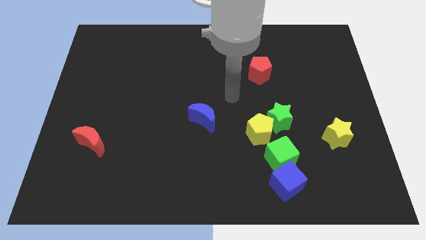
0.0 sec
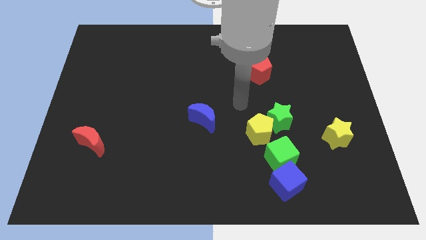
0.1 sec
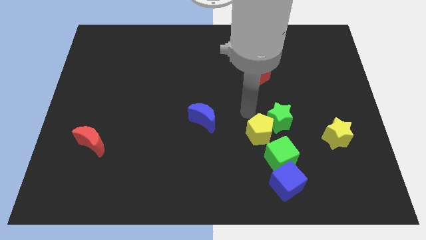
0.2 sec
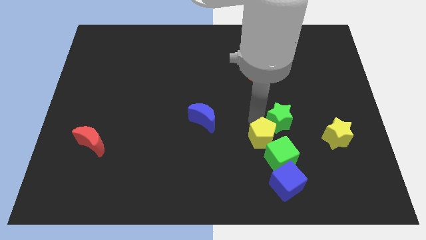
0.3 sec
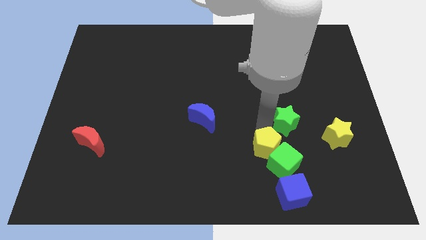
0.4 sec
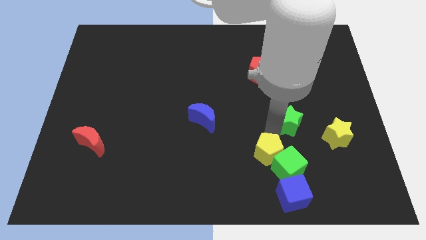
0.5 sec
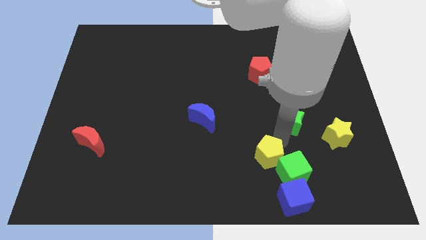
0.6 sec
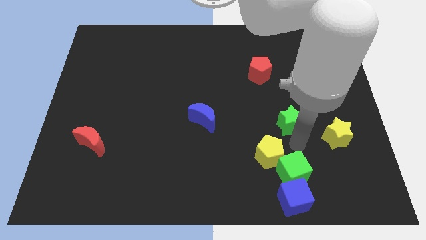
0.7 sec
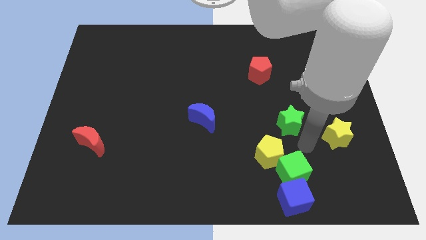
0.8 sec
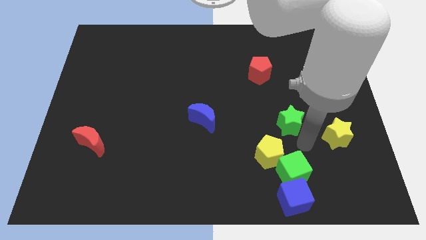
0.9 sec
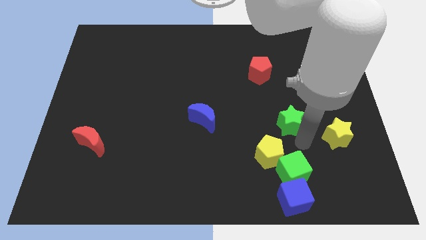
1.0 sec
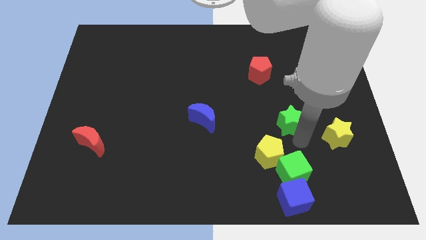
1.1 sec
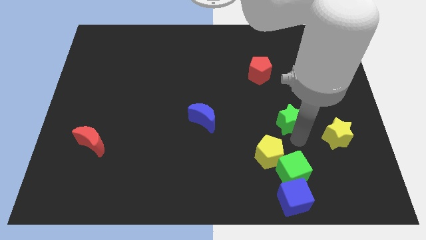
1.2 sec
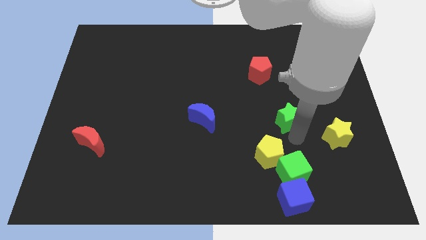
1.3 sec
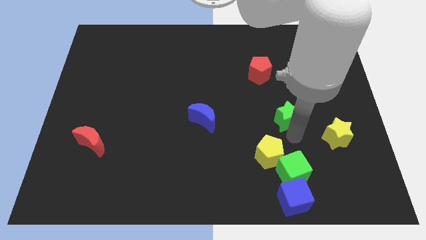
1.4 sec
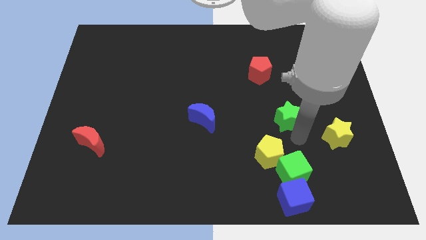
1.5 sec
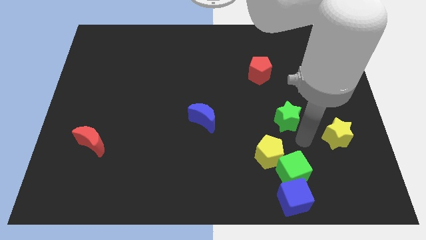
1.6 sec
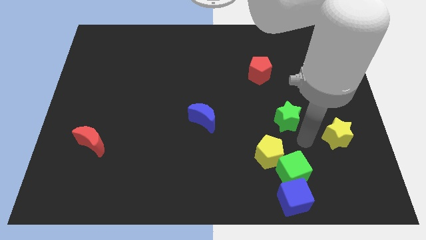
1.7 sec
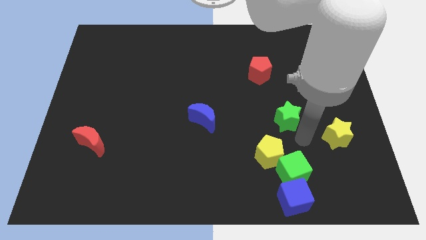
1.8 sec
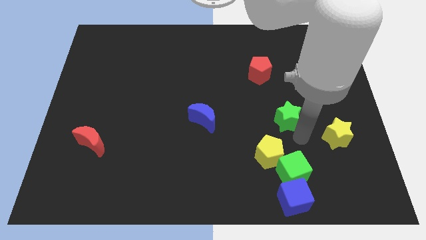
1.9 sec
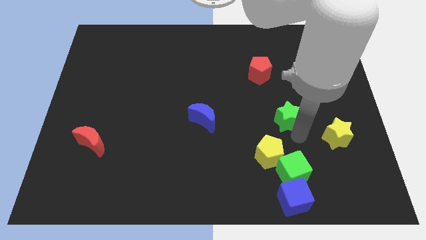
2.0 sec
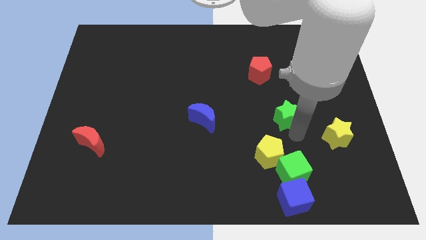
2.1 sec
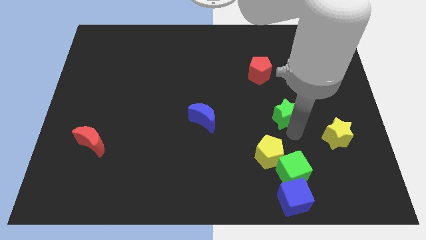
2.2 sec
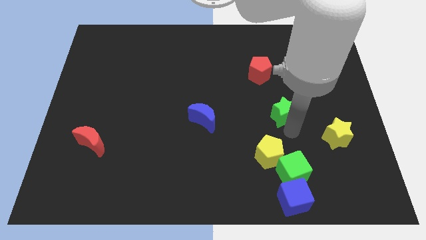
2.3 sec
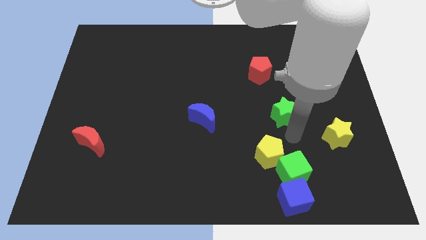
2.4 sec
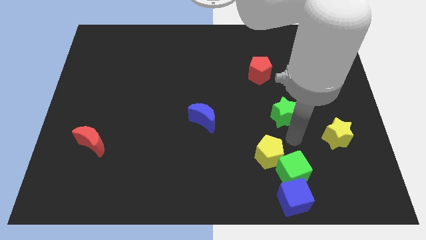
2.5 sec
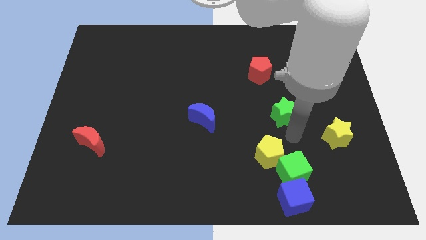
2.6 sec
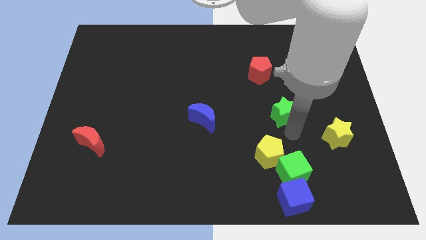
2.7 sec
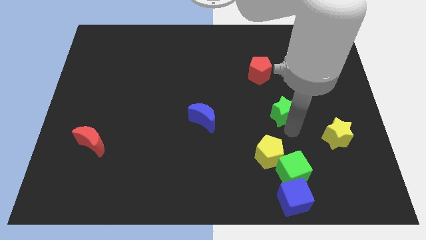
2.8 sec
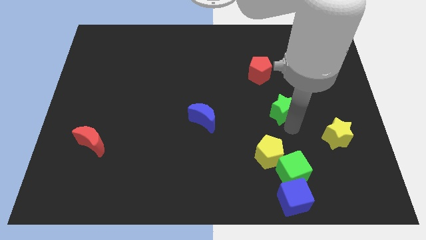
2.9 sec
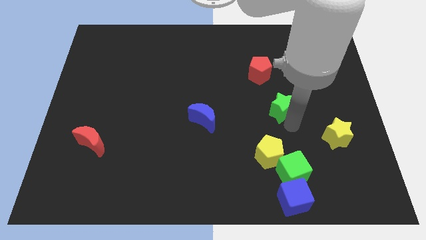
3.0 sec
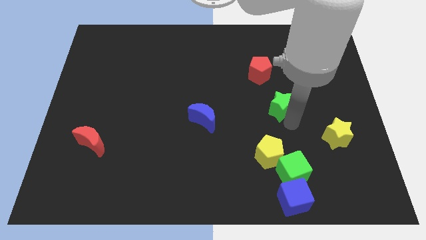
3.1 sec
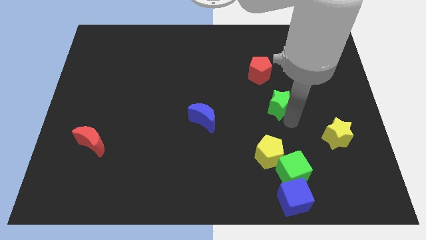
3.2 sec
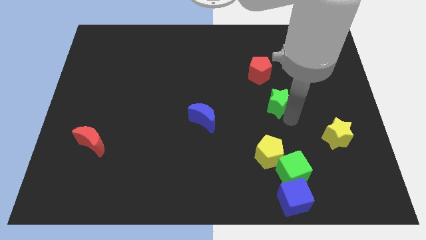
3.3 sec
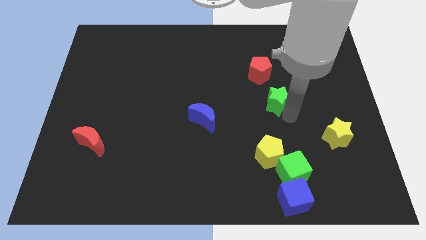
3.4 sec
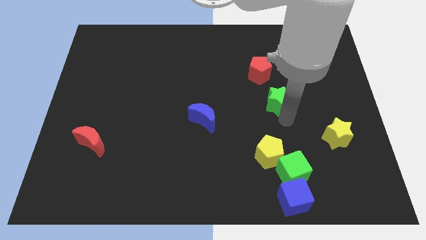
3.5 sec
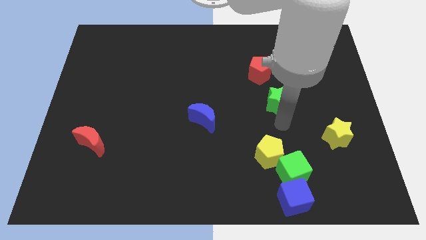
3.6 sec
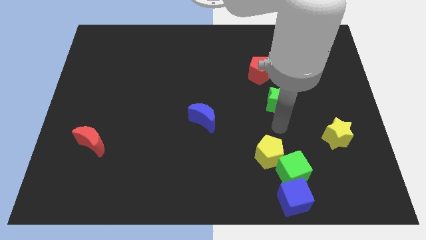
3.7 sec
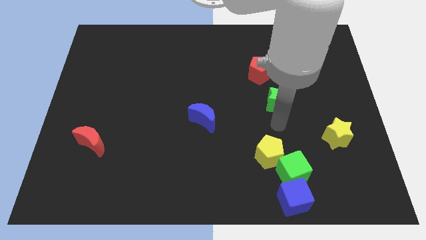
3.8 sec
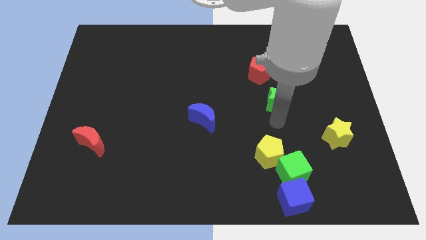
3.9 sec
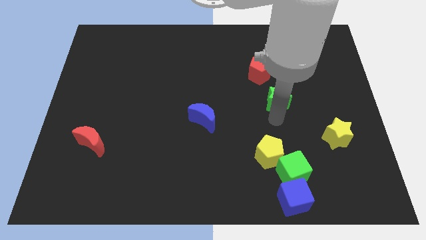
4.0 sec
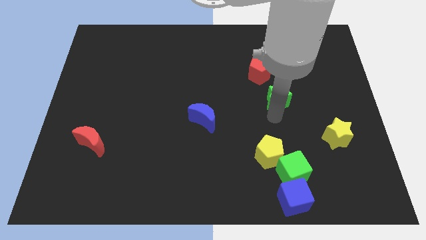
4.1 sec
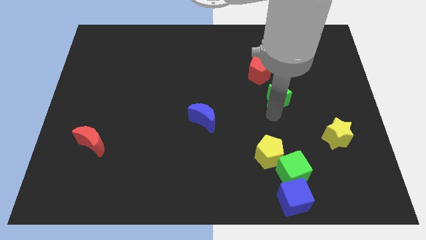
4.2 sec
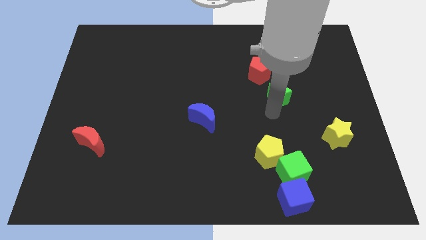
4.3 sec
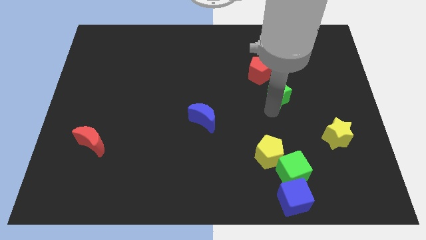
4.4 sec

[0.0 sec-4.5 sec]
push the green star upwards a little

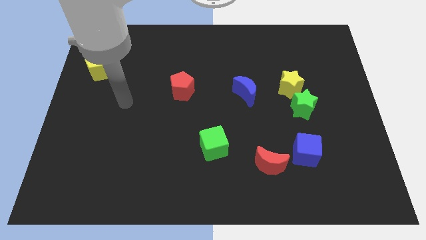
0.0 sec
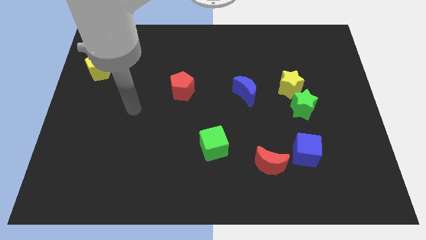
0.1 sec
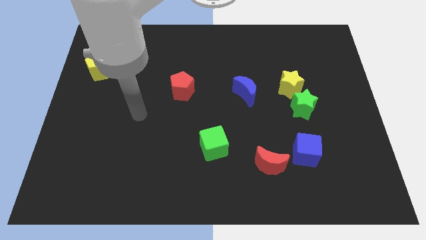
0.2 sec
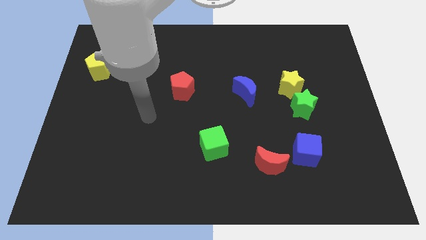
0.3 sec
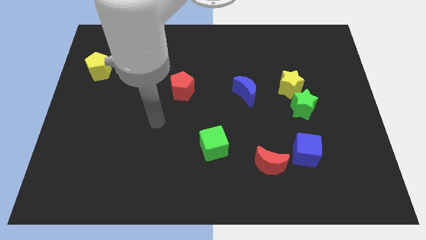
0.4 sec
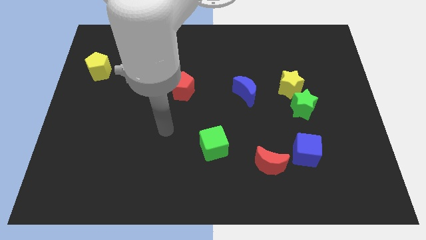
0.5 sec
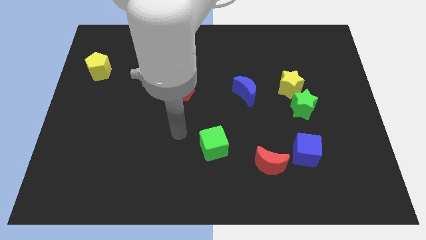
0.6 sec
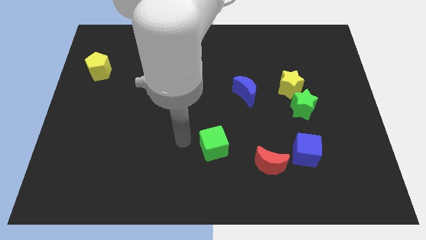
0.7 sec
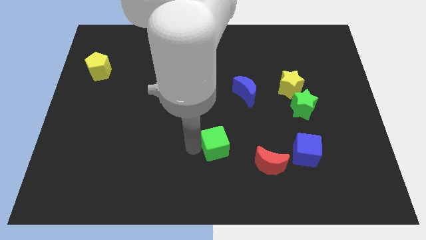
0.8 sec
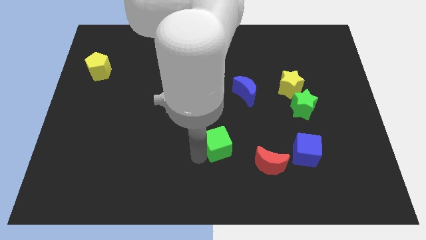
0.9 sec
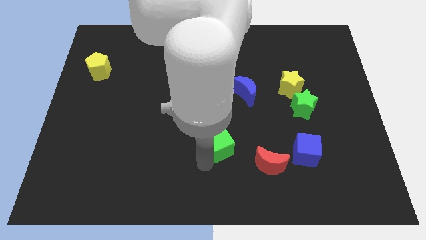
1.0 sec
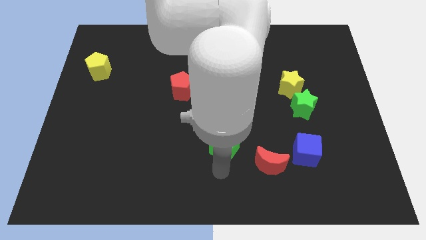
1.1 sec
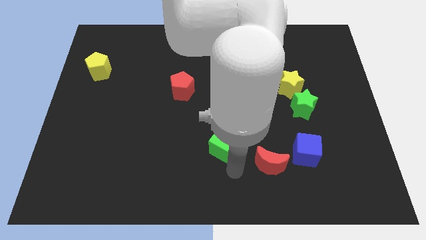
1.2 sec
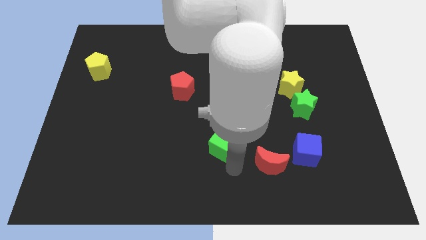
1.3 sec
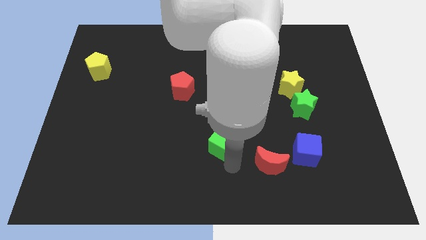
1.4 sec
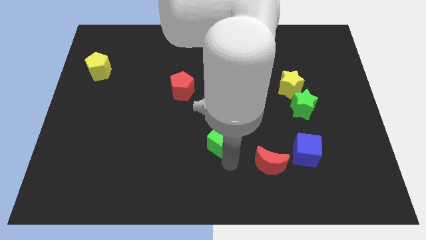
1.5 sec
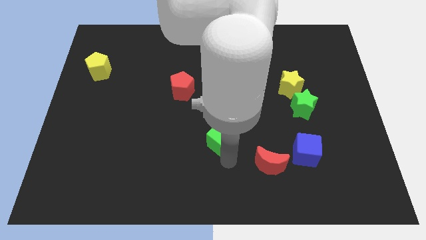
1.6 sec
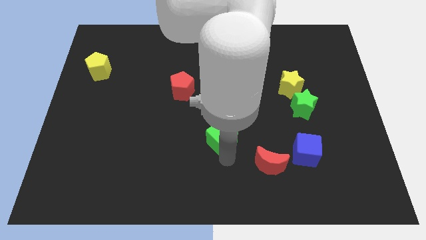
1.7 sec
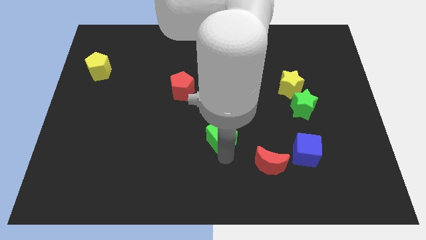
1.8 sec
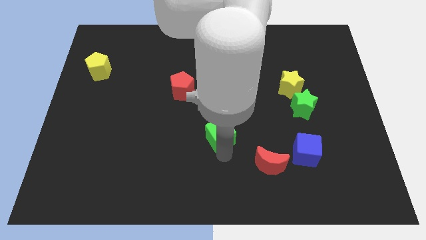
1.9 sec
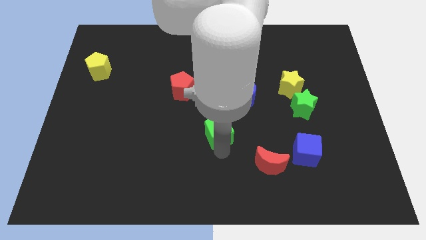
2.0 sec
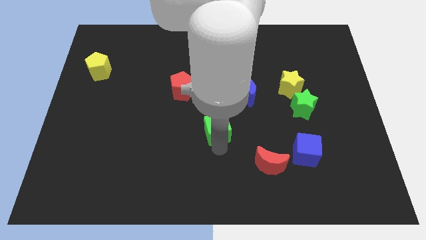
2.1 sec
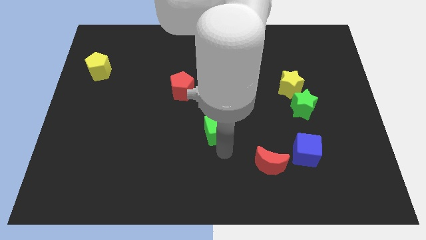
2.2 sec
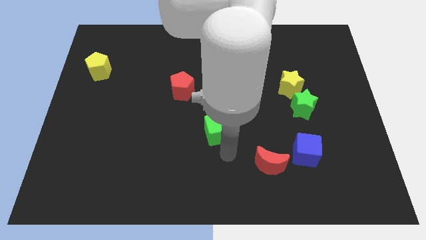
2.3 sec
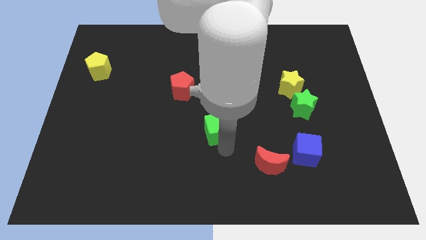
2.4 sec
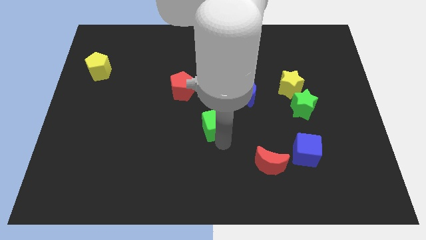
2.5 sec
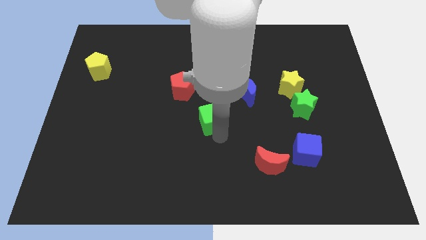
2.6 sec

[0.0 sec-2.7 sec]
slide the green cube a bit upwards

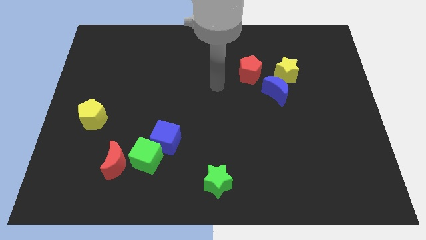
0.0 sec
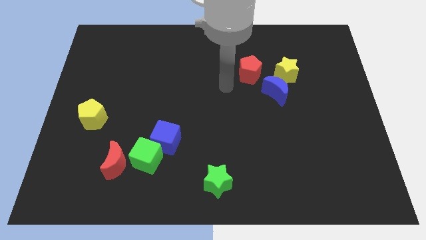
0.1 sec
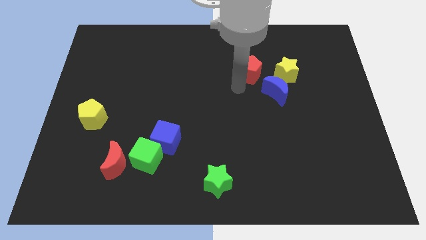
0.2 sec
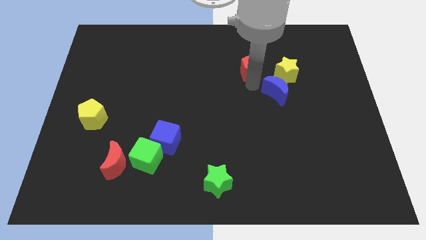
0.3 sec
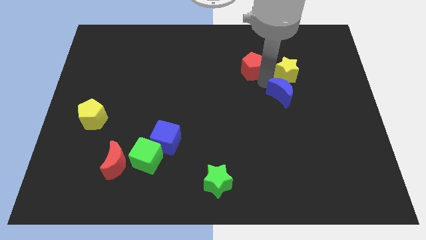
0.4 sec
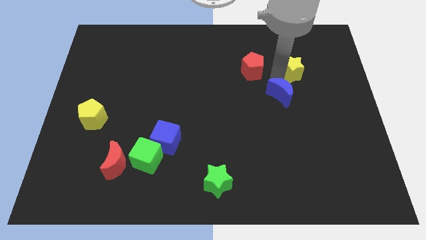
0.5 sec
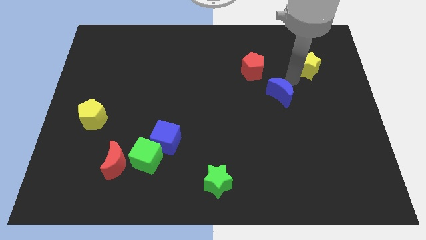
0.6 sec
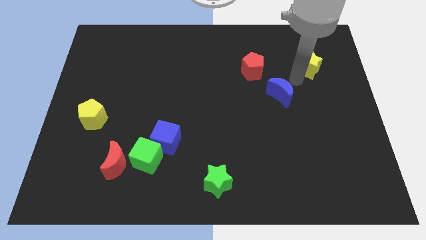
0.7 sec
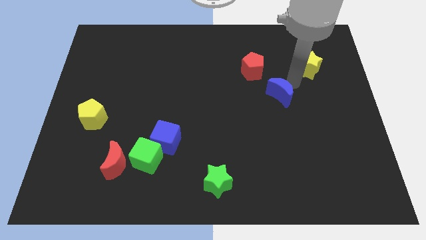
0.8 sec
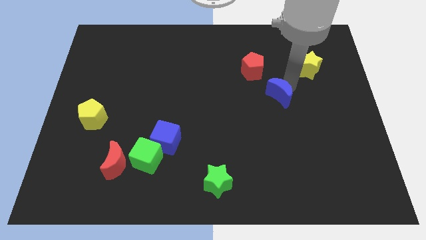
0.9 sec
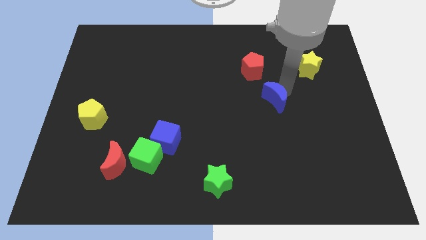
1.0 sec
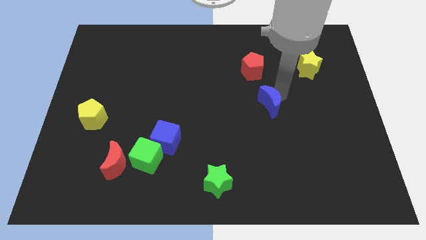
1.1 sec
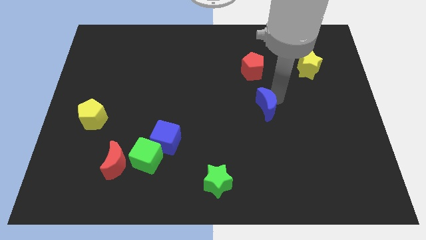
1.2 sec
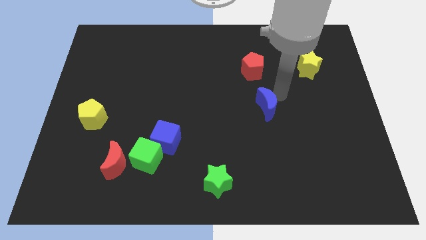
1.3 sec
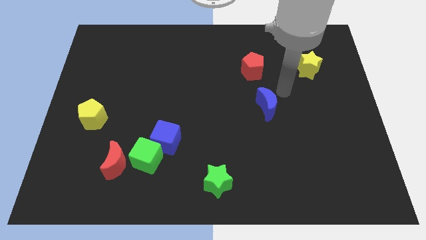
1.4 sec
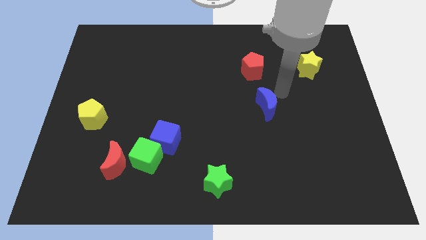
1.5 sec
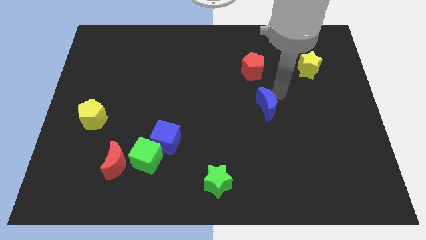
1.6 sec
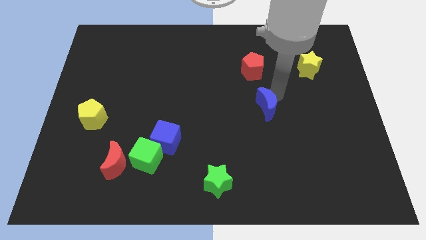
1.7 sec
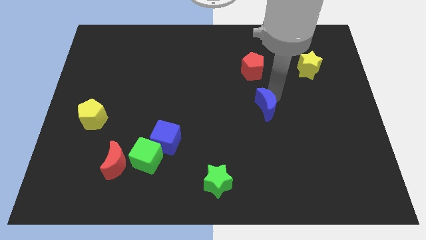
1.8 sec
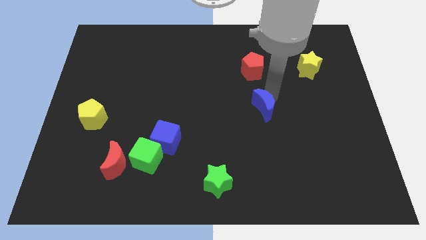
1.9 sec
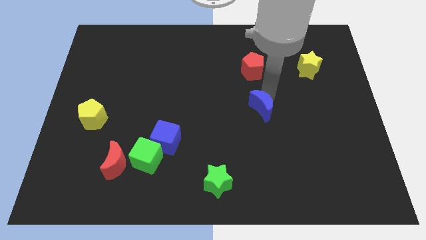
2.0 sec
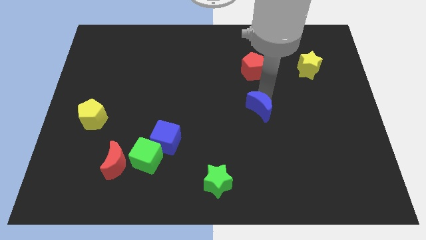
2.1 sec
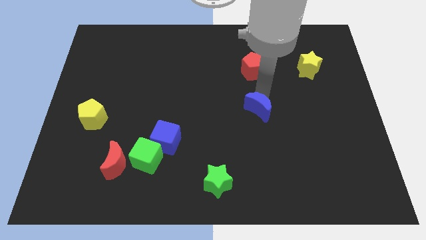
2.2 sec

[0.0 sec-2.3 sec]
slightly move the blue moon down and left
